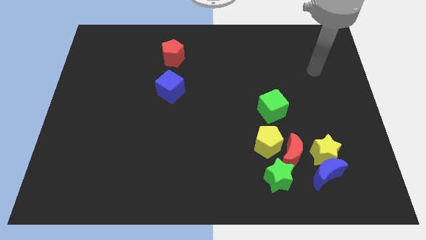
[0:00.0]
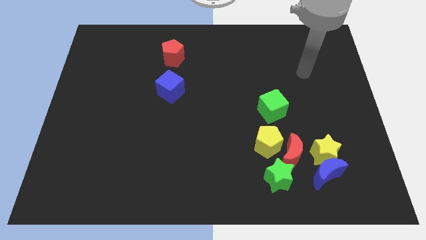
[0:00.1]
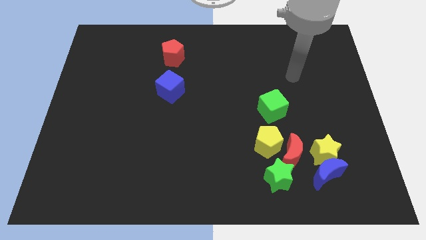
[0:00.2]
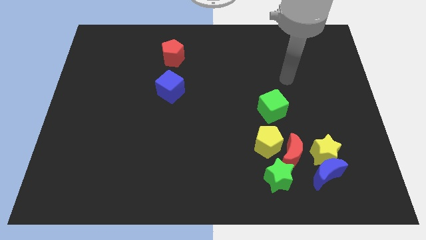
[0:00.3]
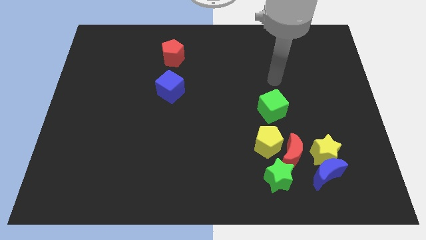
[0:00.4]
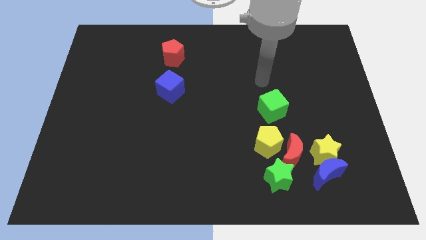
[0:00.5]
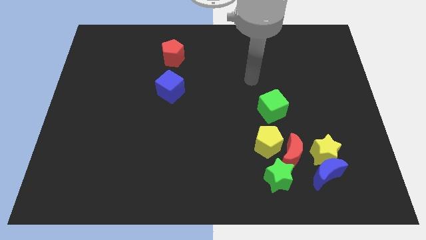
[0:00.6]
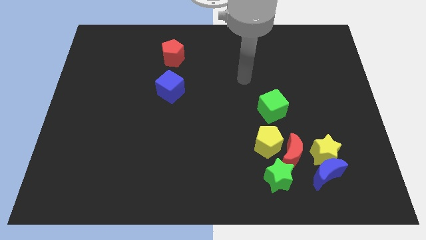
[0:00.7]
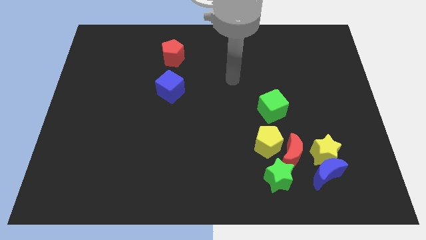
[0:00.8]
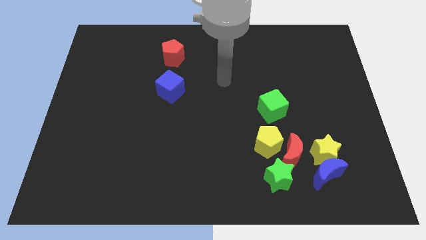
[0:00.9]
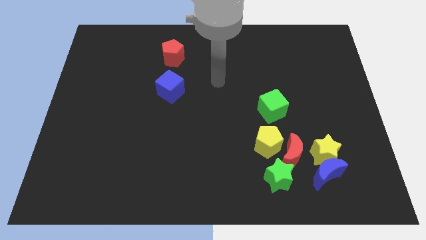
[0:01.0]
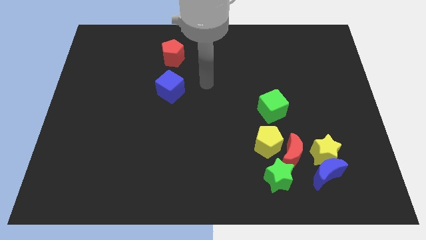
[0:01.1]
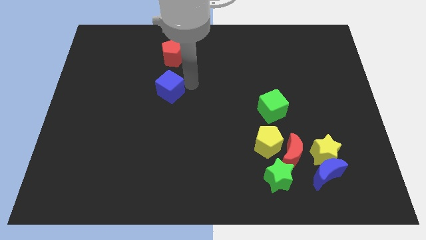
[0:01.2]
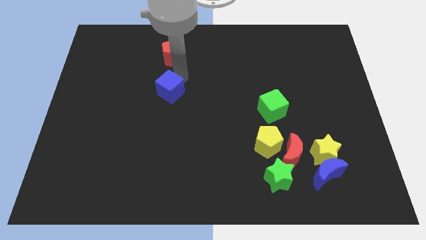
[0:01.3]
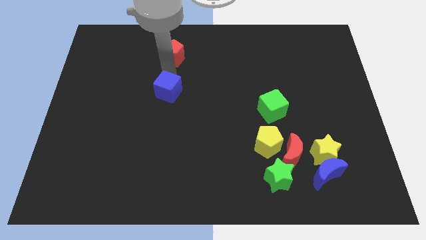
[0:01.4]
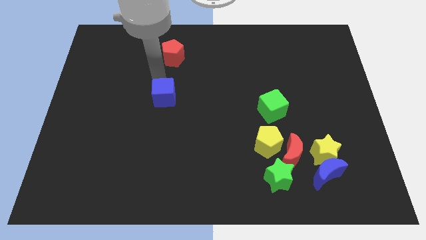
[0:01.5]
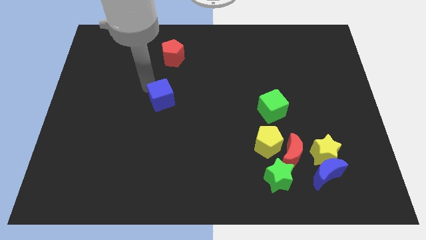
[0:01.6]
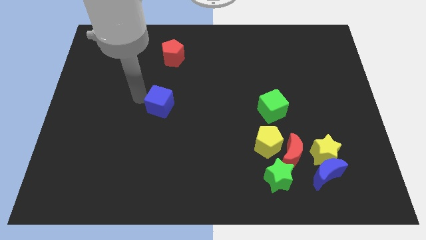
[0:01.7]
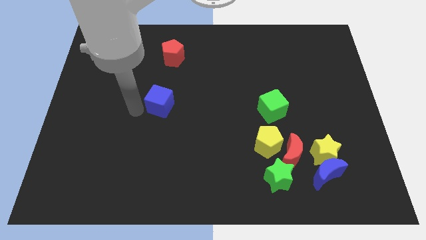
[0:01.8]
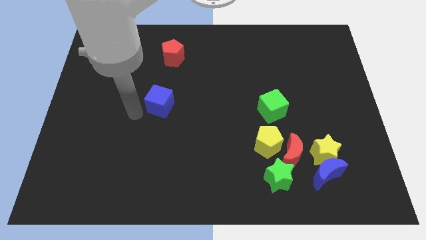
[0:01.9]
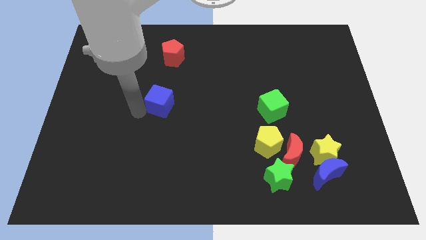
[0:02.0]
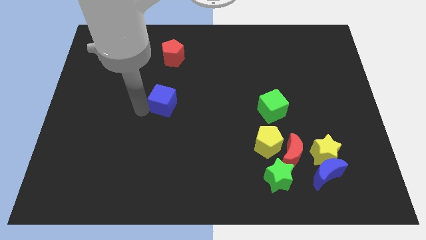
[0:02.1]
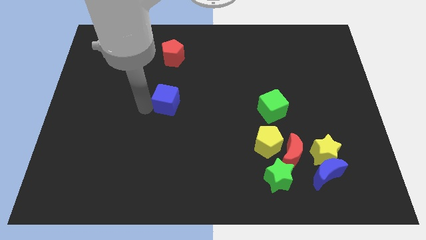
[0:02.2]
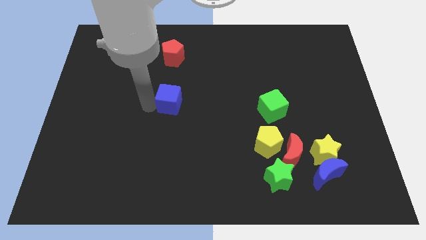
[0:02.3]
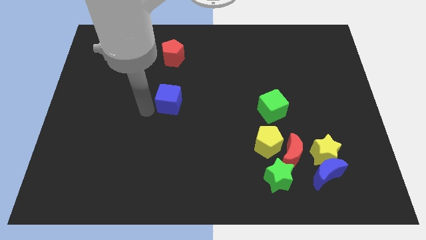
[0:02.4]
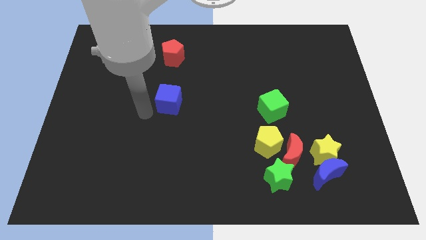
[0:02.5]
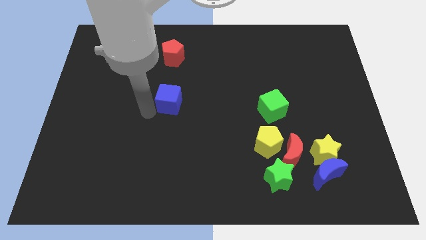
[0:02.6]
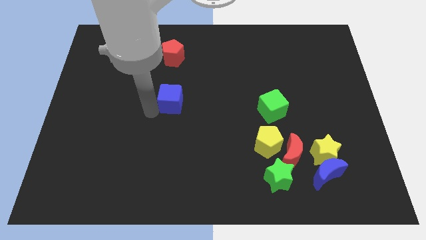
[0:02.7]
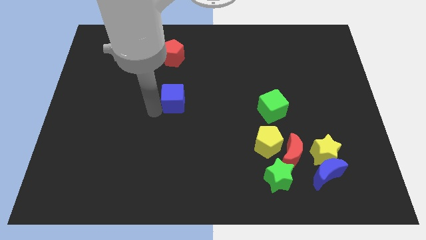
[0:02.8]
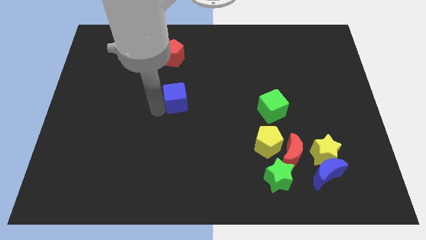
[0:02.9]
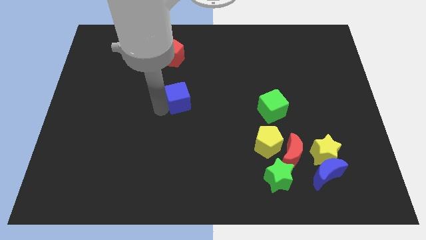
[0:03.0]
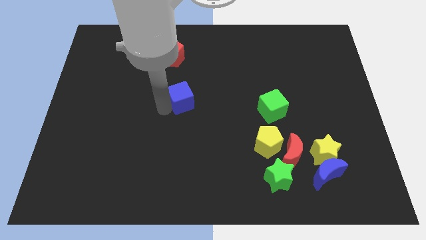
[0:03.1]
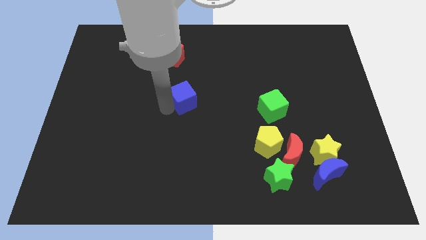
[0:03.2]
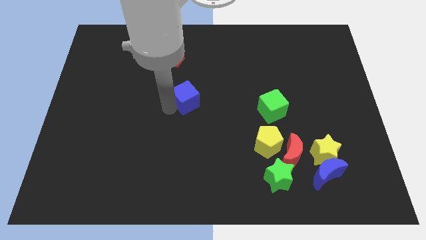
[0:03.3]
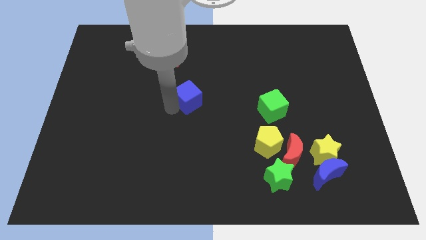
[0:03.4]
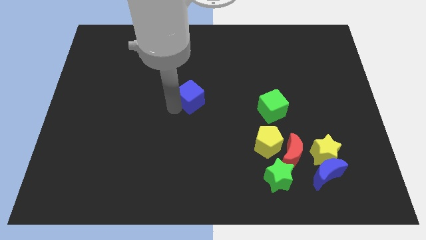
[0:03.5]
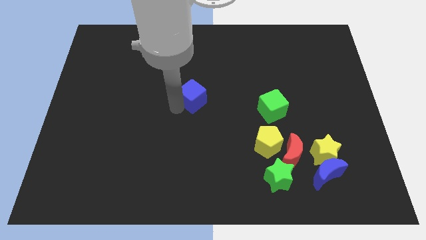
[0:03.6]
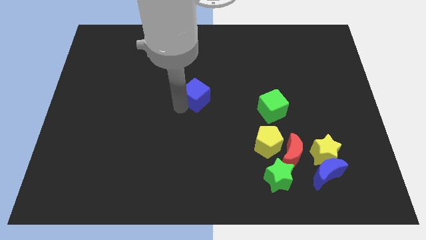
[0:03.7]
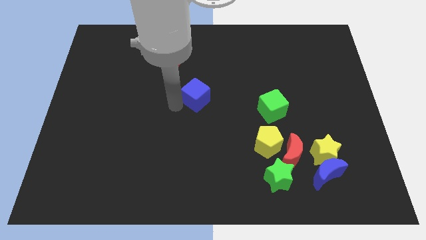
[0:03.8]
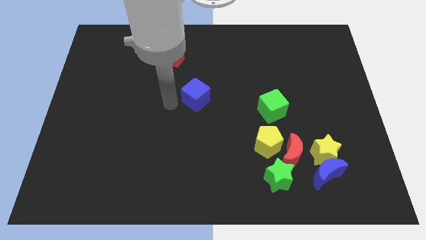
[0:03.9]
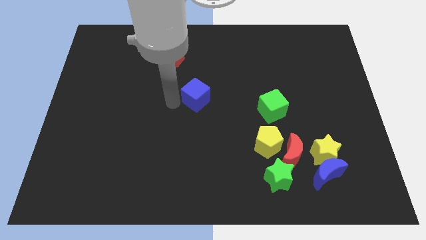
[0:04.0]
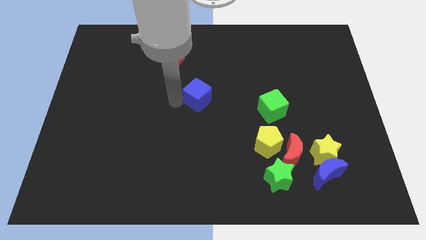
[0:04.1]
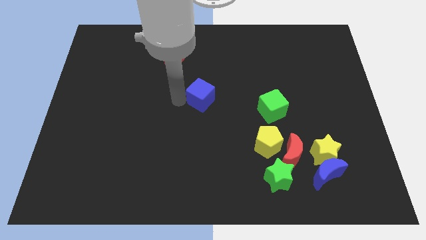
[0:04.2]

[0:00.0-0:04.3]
slide the blue cube right a little

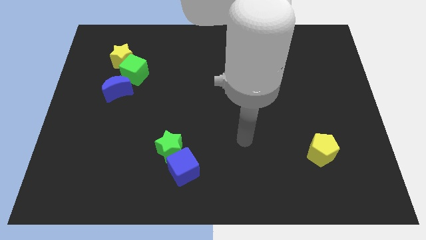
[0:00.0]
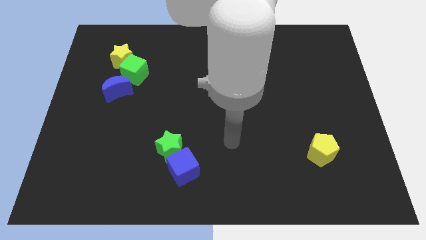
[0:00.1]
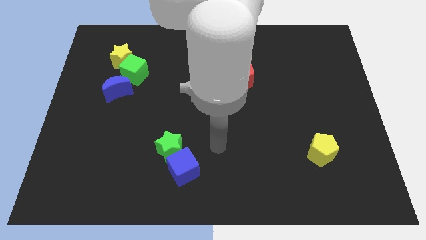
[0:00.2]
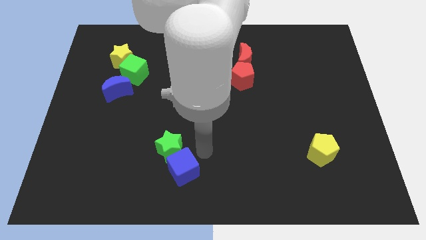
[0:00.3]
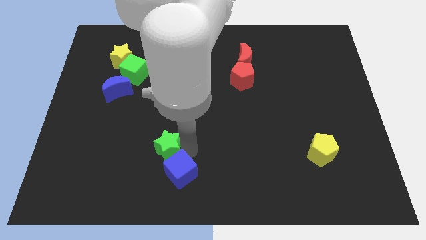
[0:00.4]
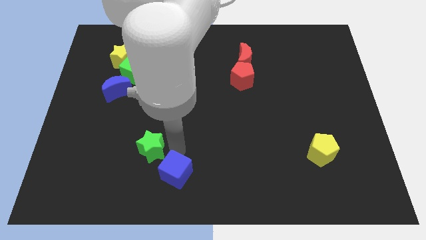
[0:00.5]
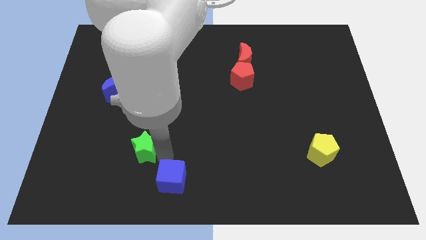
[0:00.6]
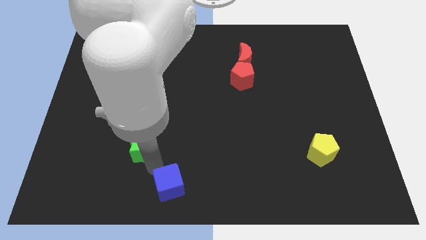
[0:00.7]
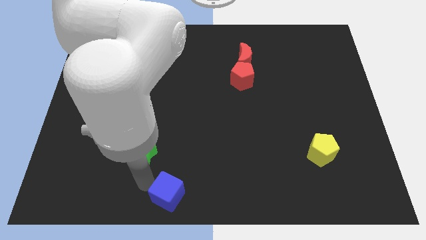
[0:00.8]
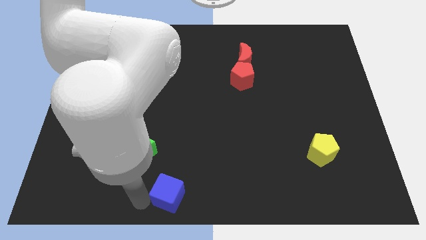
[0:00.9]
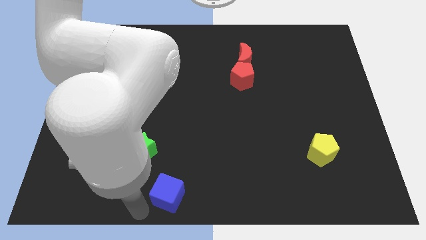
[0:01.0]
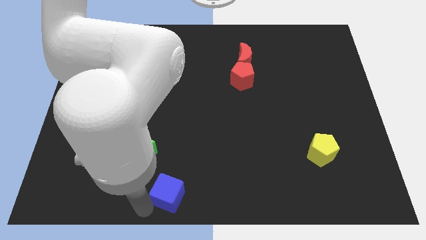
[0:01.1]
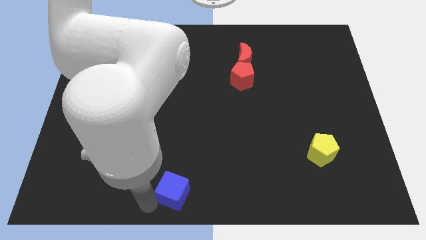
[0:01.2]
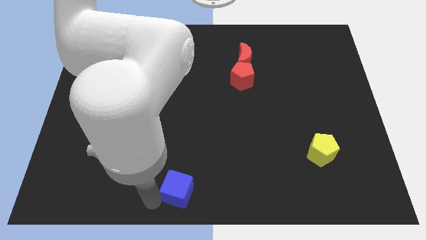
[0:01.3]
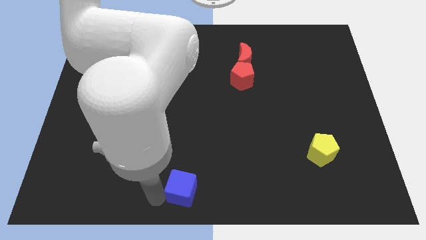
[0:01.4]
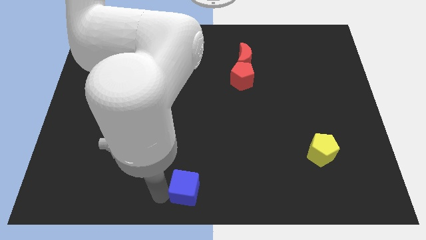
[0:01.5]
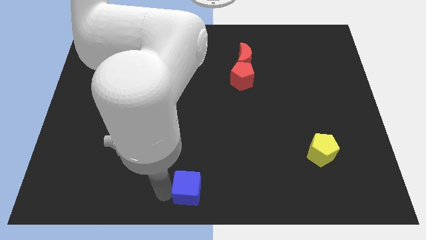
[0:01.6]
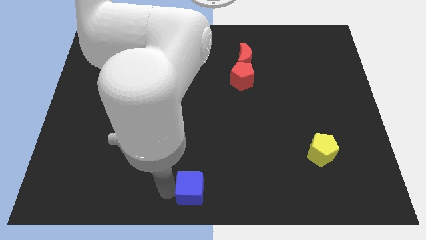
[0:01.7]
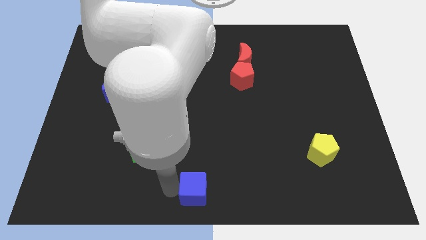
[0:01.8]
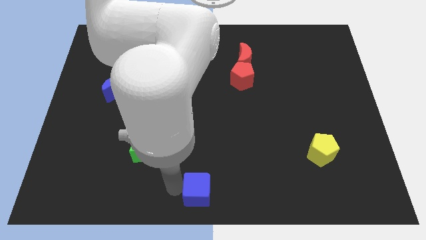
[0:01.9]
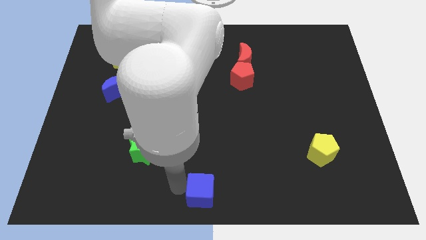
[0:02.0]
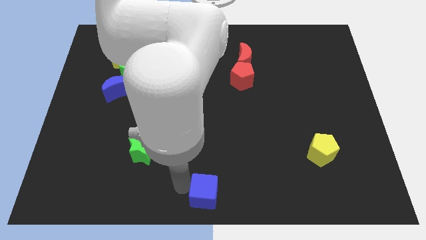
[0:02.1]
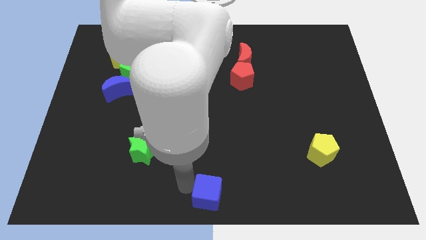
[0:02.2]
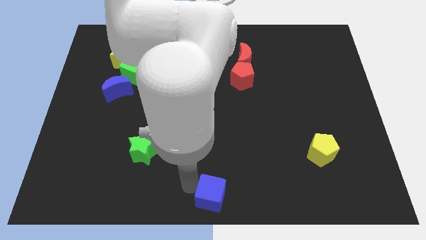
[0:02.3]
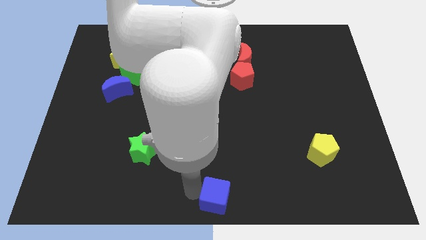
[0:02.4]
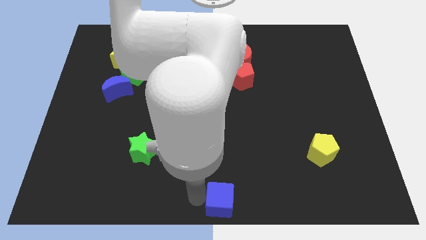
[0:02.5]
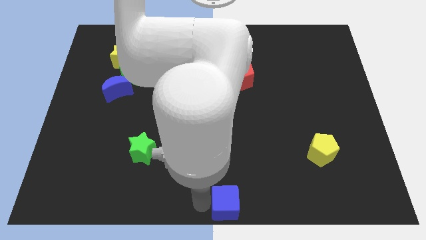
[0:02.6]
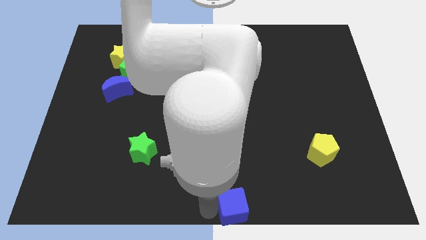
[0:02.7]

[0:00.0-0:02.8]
slightly move the blue cube to the right

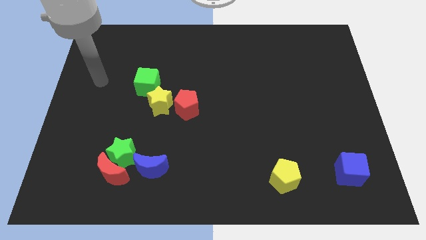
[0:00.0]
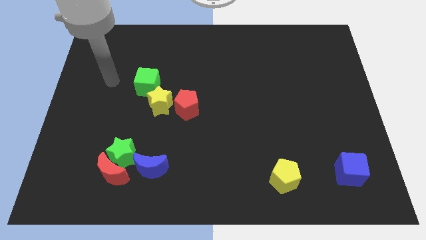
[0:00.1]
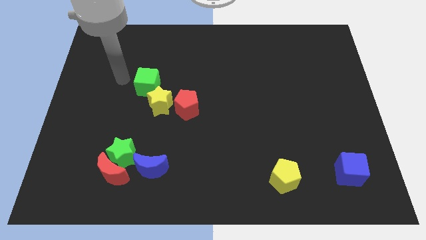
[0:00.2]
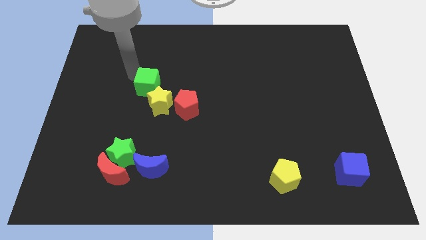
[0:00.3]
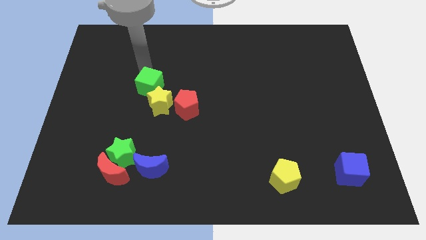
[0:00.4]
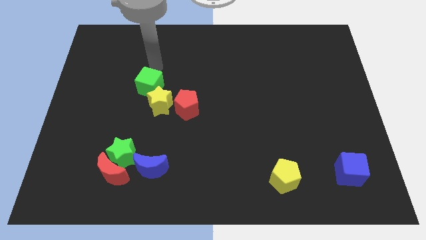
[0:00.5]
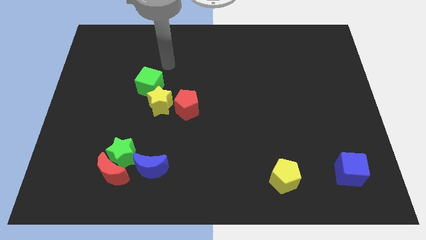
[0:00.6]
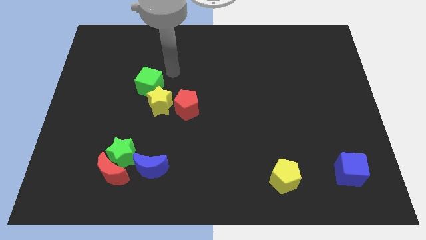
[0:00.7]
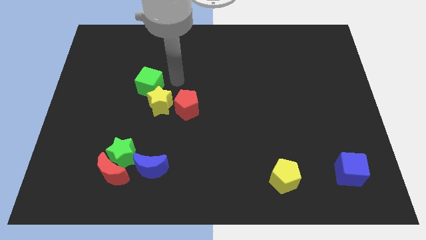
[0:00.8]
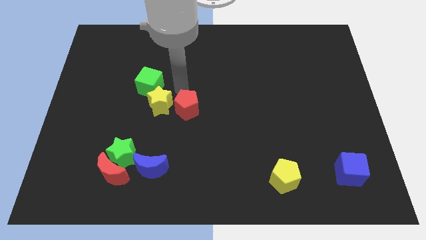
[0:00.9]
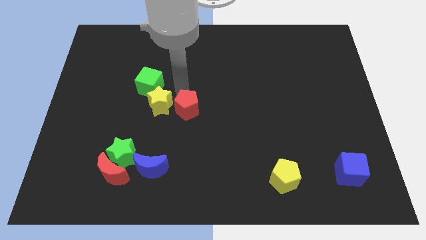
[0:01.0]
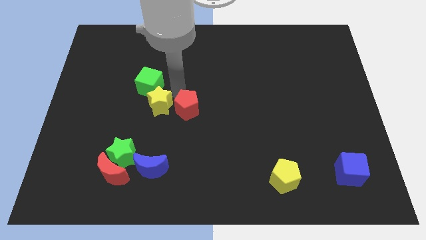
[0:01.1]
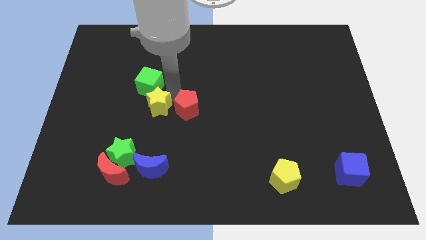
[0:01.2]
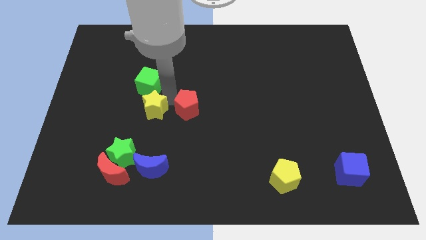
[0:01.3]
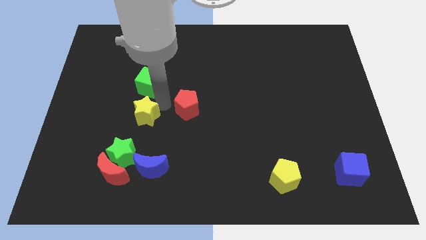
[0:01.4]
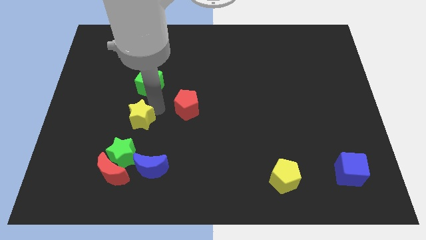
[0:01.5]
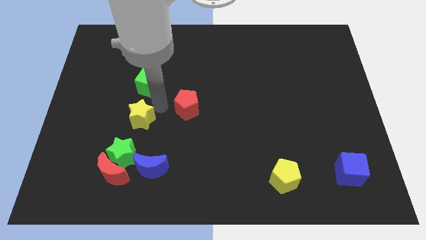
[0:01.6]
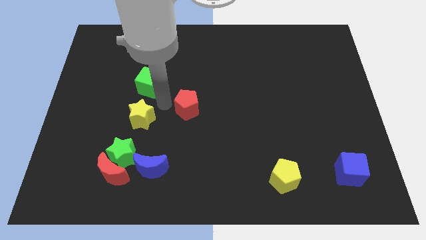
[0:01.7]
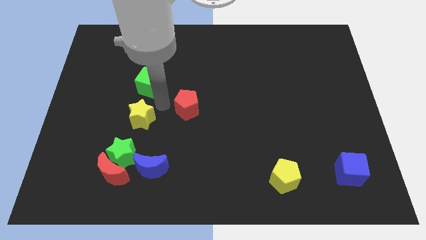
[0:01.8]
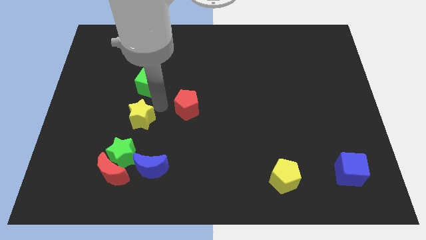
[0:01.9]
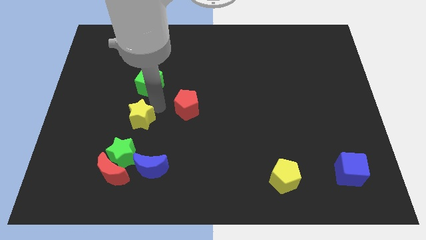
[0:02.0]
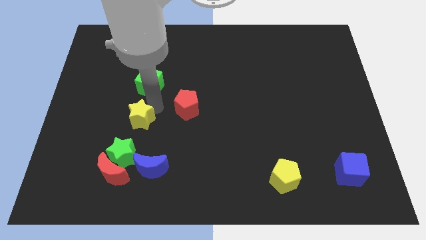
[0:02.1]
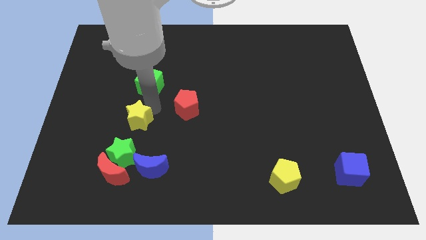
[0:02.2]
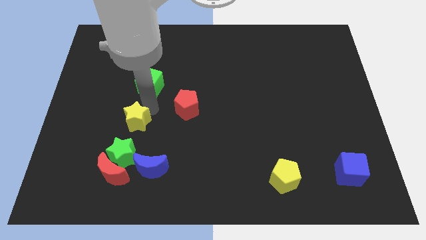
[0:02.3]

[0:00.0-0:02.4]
push the yellow star slightly down and then left
